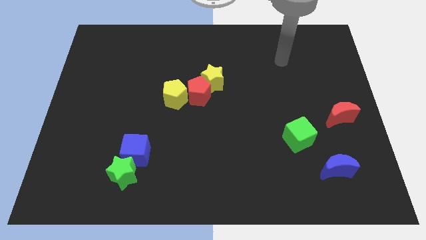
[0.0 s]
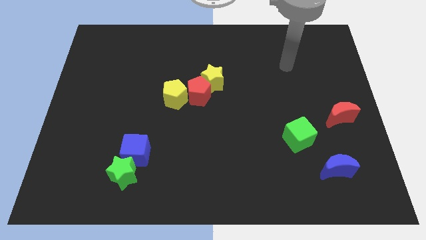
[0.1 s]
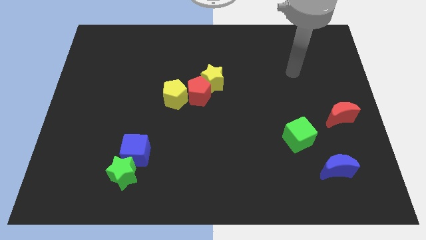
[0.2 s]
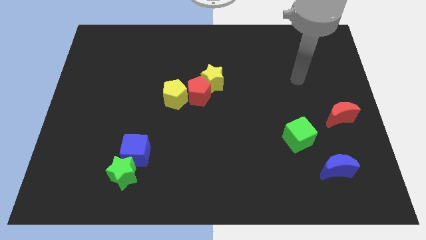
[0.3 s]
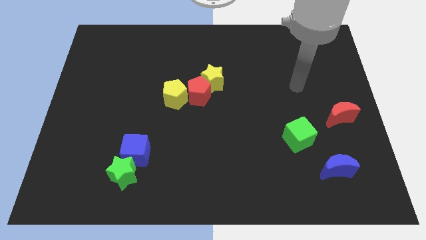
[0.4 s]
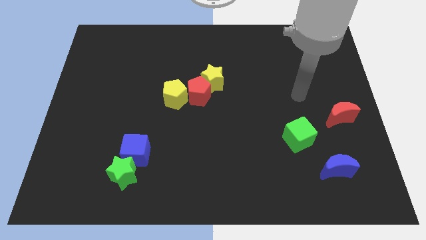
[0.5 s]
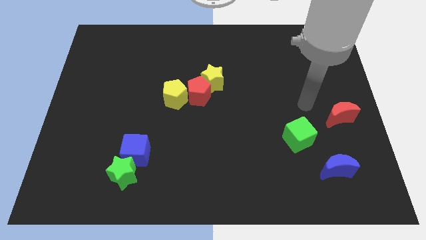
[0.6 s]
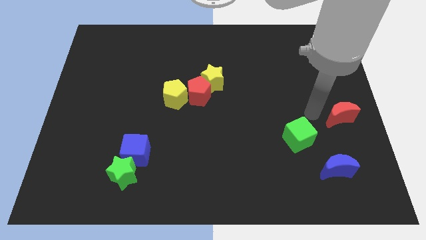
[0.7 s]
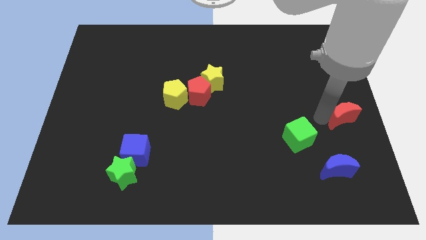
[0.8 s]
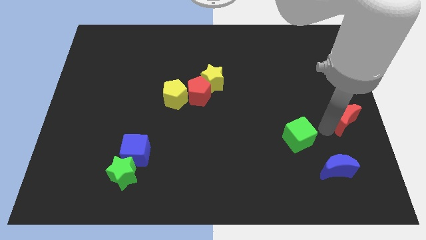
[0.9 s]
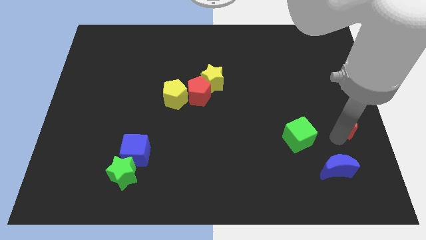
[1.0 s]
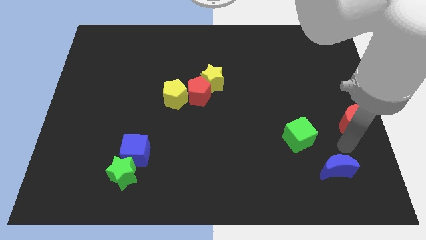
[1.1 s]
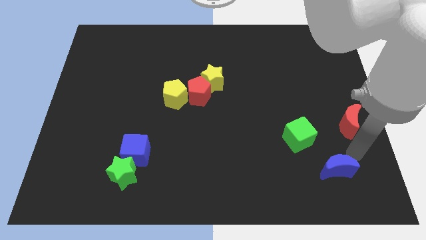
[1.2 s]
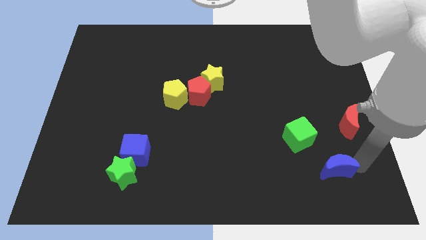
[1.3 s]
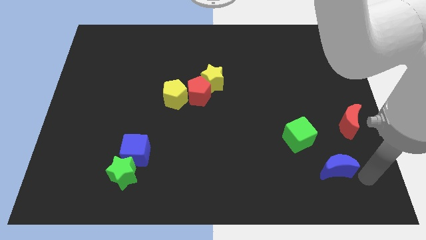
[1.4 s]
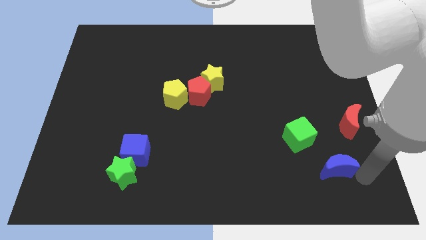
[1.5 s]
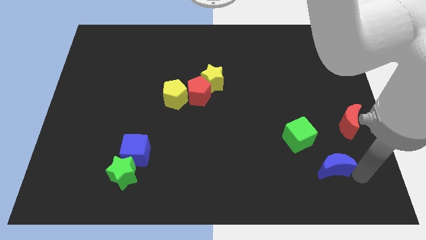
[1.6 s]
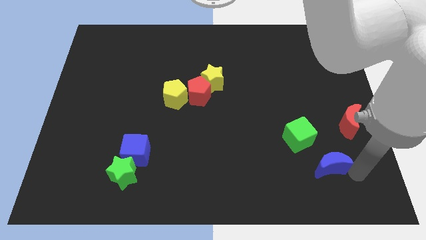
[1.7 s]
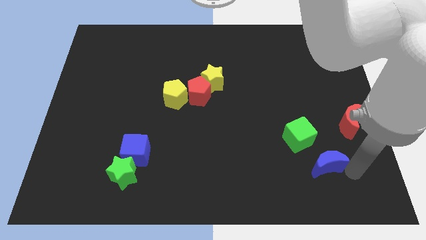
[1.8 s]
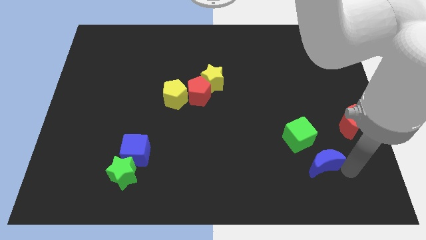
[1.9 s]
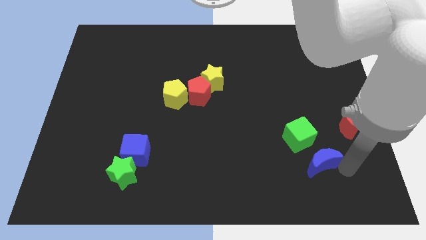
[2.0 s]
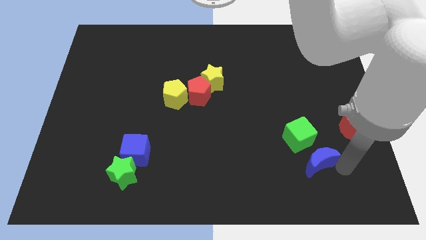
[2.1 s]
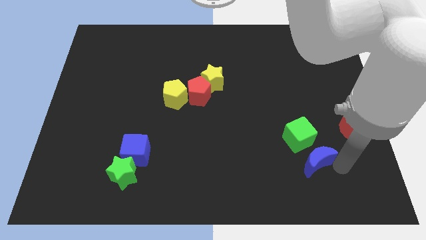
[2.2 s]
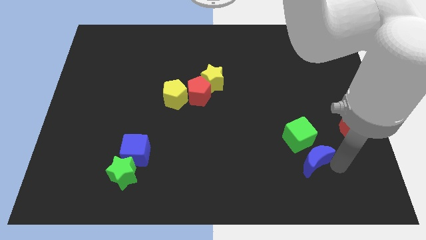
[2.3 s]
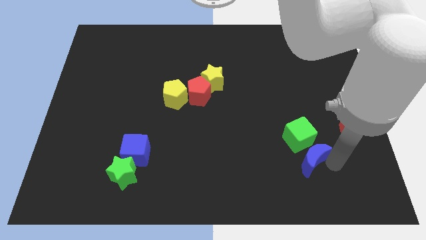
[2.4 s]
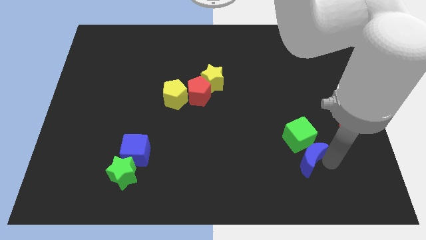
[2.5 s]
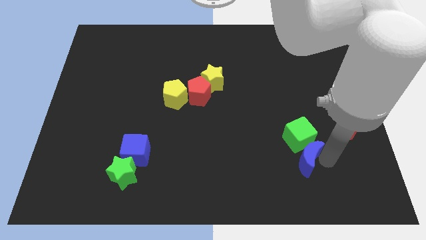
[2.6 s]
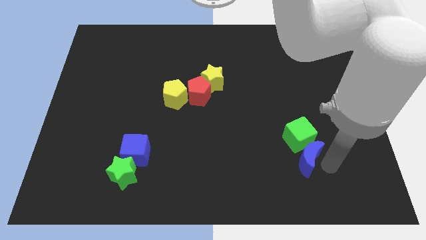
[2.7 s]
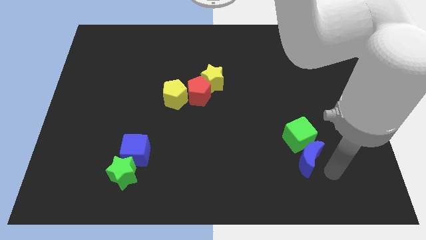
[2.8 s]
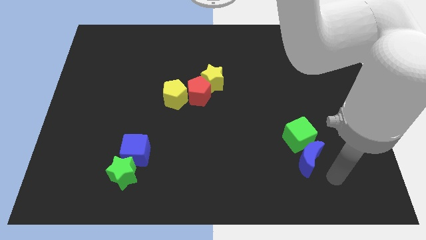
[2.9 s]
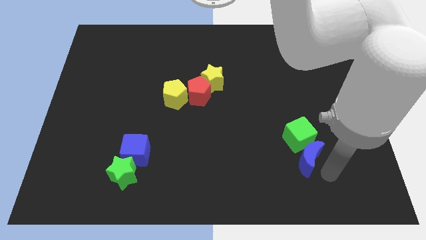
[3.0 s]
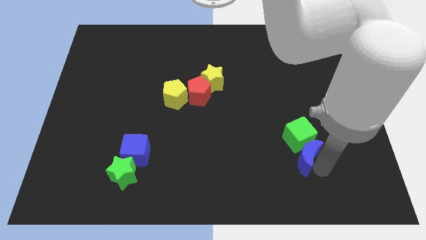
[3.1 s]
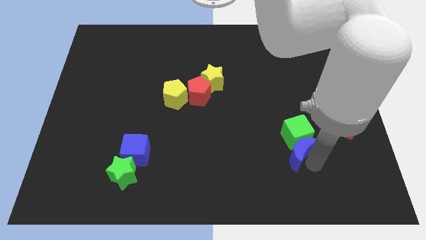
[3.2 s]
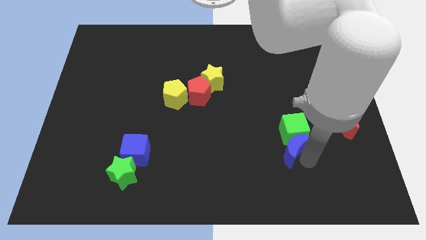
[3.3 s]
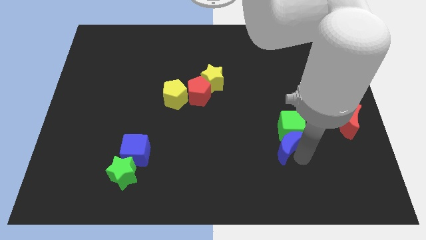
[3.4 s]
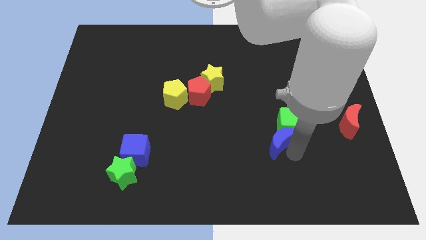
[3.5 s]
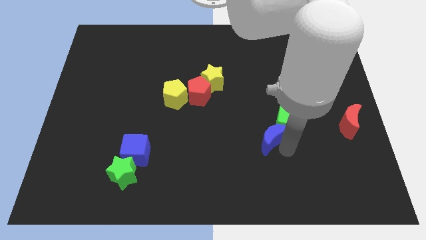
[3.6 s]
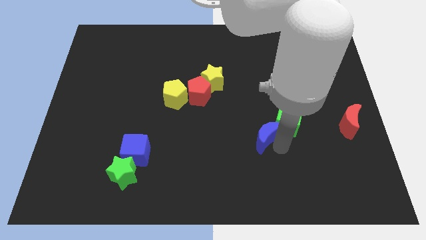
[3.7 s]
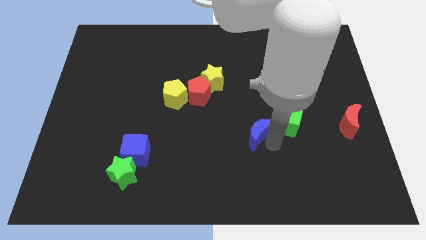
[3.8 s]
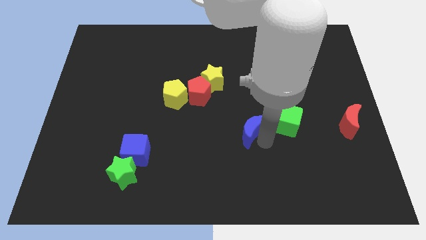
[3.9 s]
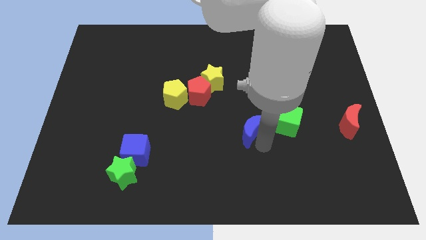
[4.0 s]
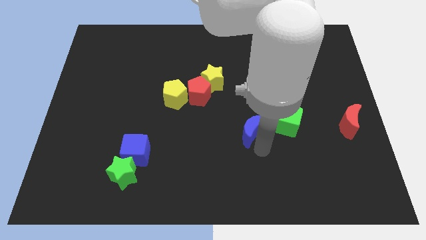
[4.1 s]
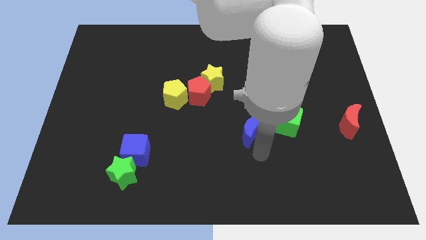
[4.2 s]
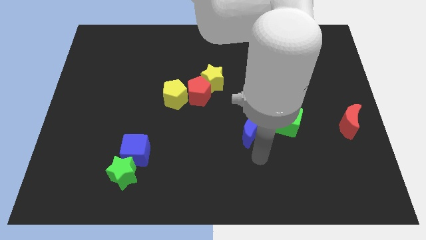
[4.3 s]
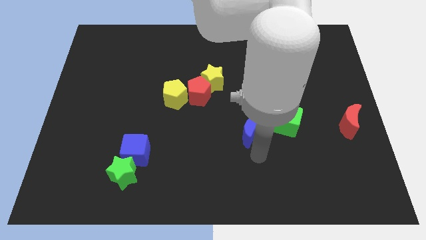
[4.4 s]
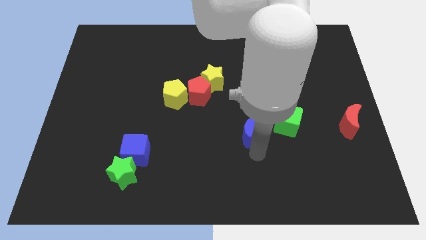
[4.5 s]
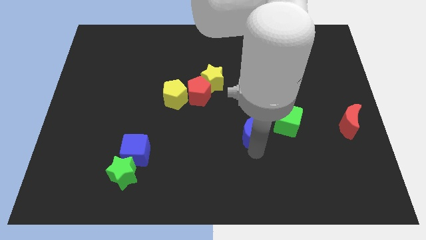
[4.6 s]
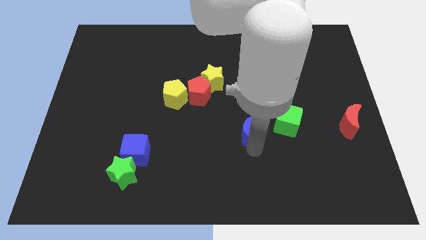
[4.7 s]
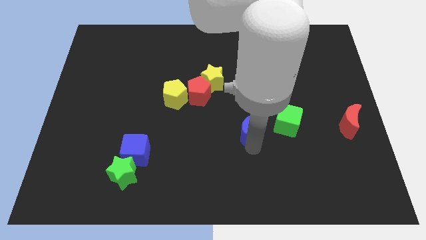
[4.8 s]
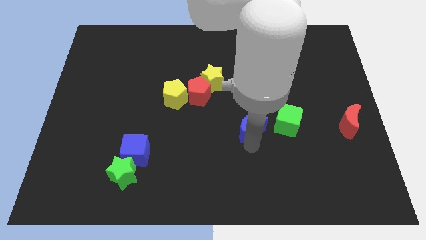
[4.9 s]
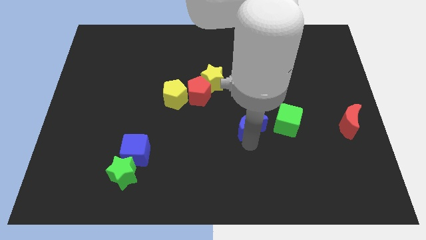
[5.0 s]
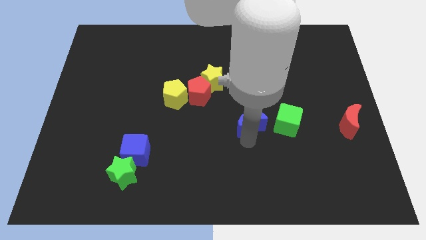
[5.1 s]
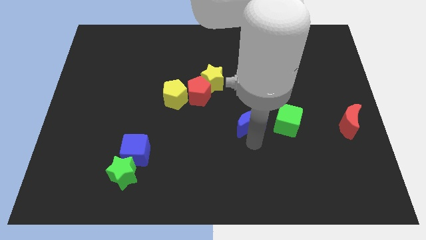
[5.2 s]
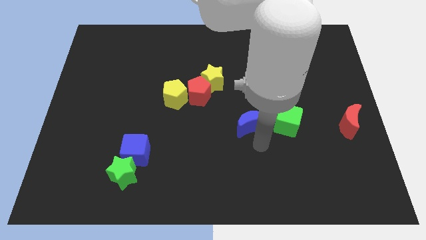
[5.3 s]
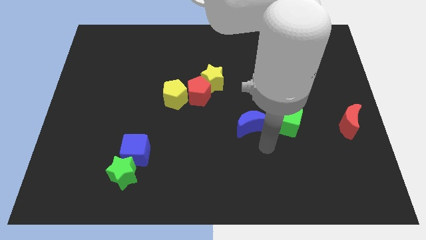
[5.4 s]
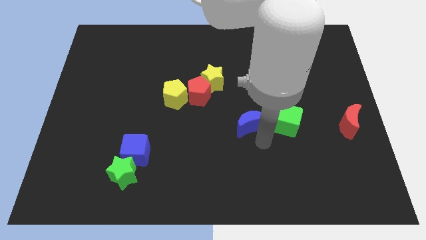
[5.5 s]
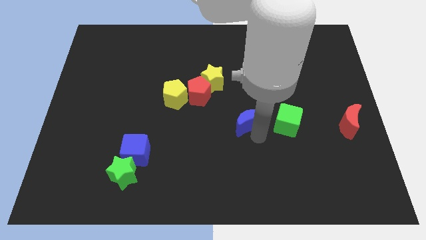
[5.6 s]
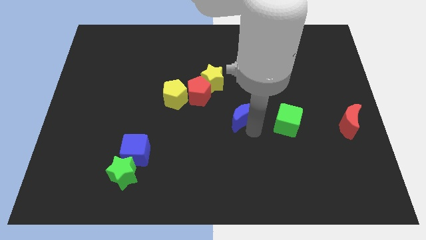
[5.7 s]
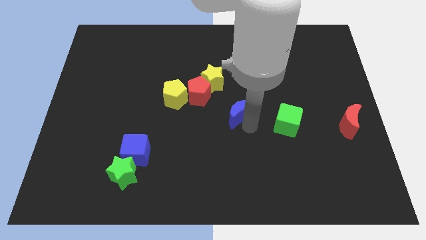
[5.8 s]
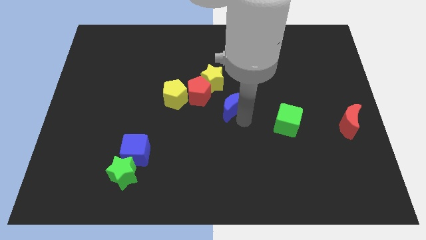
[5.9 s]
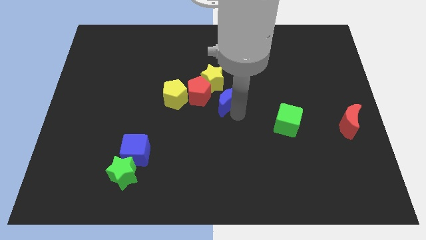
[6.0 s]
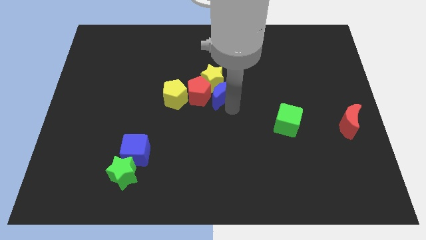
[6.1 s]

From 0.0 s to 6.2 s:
push the blue moon next to the yellow star

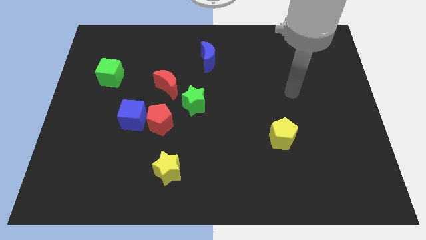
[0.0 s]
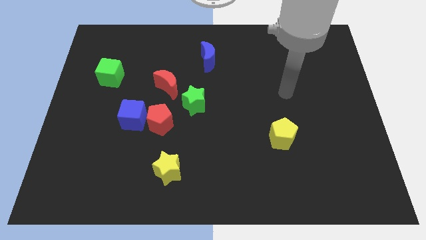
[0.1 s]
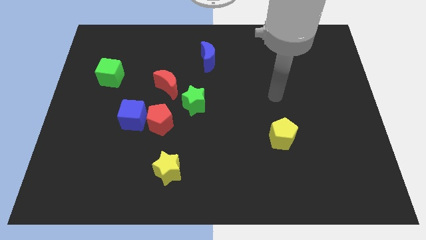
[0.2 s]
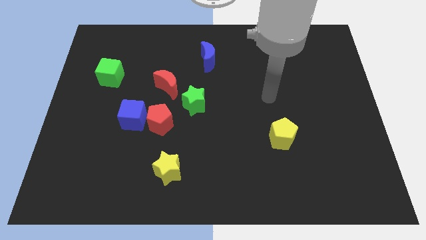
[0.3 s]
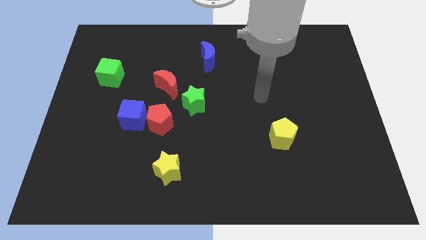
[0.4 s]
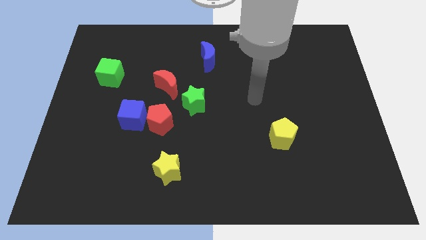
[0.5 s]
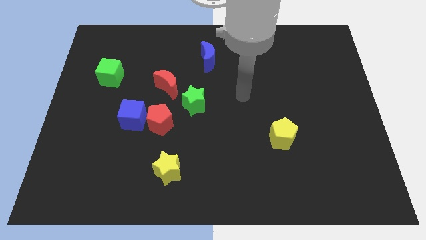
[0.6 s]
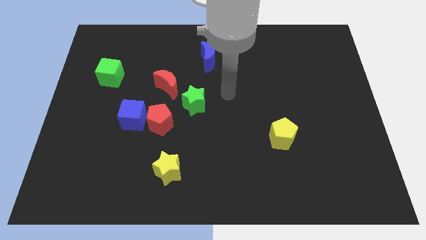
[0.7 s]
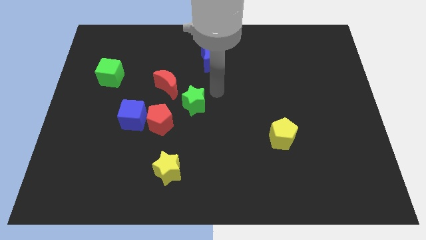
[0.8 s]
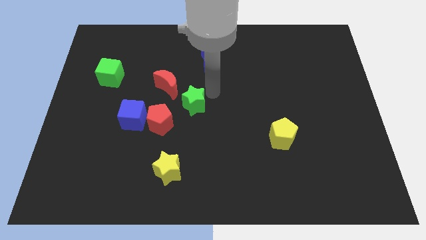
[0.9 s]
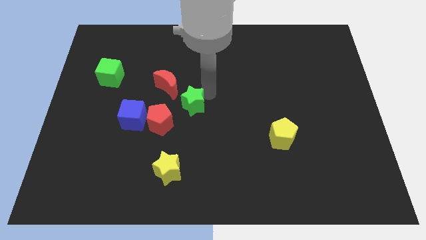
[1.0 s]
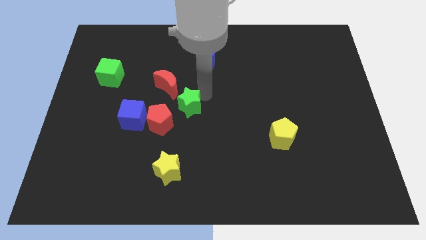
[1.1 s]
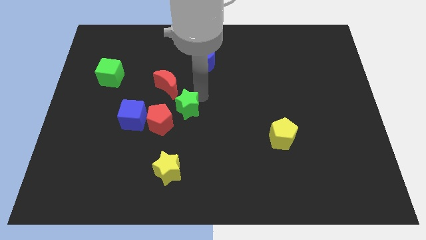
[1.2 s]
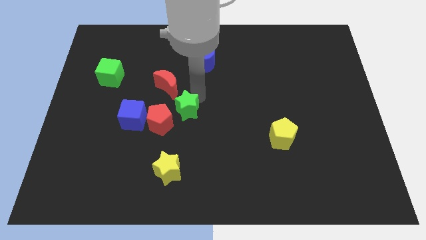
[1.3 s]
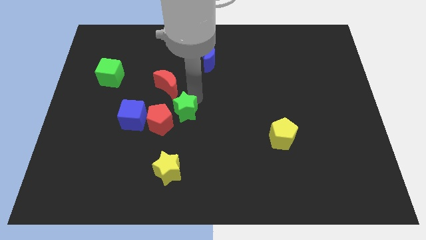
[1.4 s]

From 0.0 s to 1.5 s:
push the green star to the red pentagon
